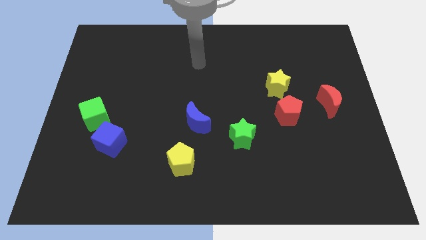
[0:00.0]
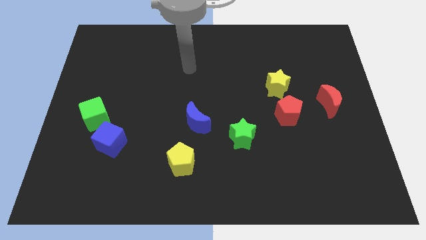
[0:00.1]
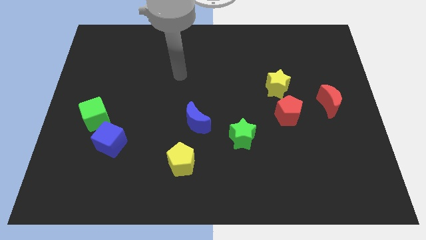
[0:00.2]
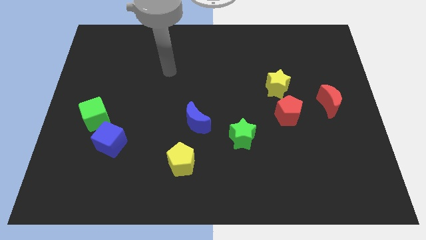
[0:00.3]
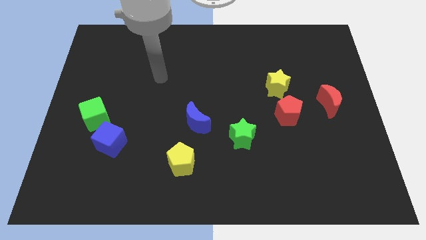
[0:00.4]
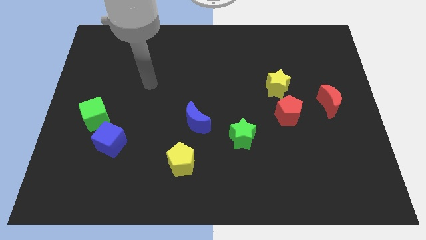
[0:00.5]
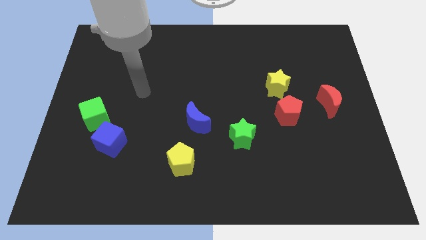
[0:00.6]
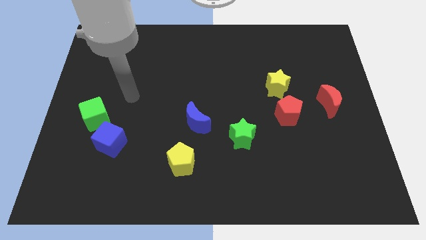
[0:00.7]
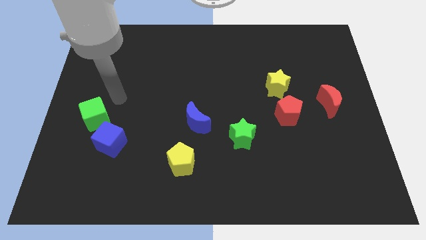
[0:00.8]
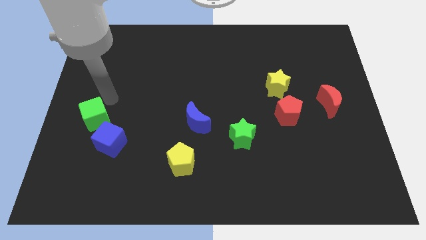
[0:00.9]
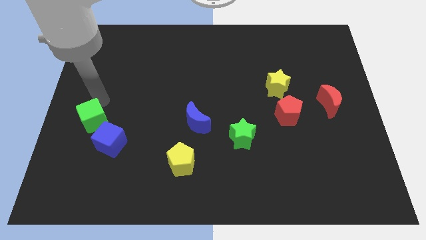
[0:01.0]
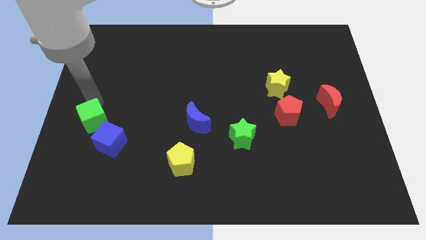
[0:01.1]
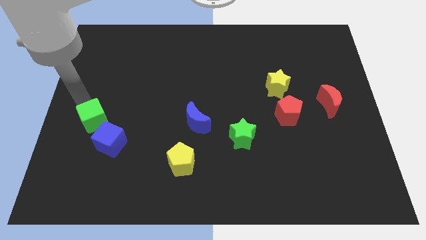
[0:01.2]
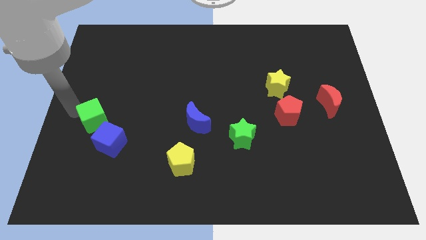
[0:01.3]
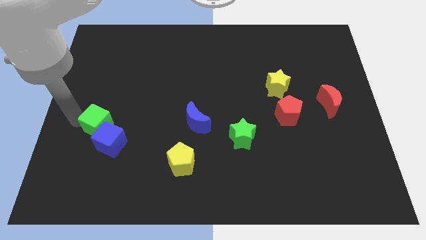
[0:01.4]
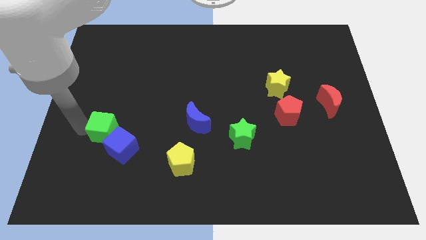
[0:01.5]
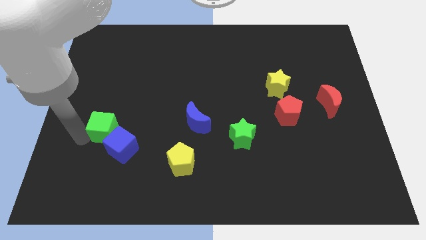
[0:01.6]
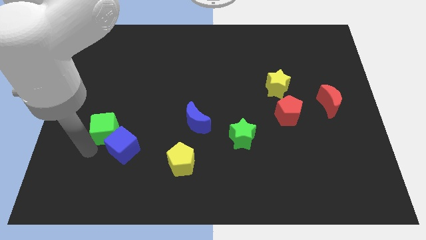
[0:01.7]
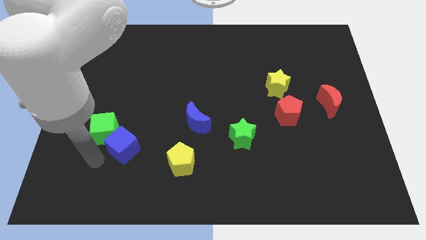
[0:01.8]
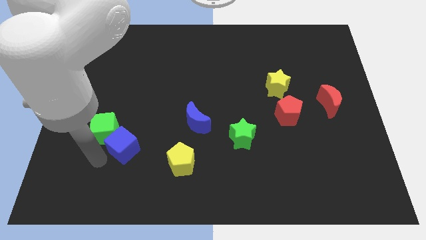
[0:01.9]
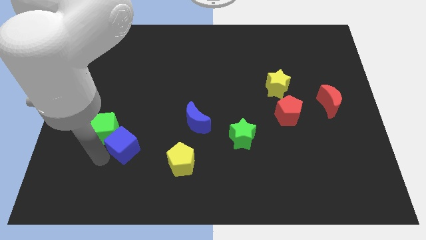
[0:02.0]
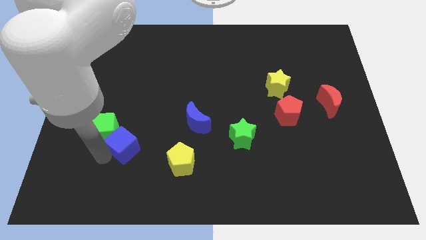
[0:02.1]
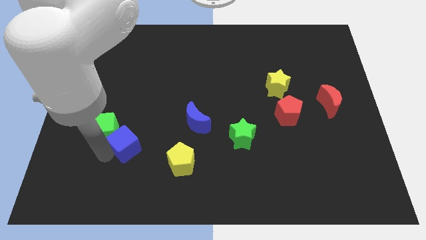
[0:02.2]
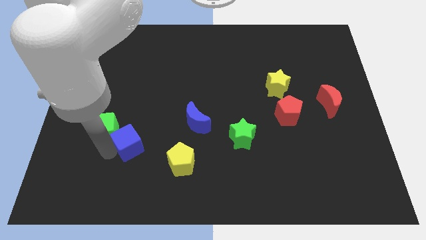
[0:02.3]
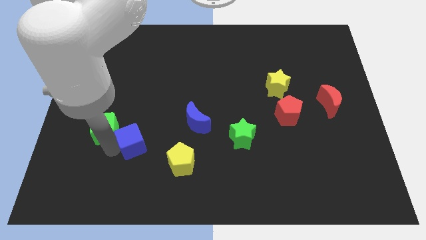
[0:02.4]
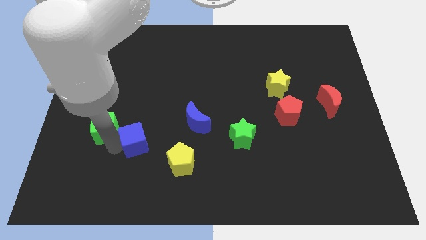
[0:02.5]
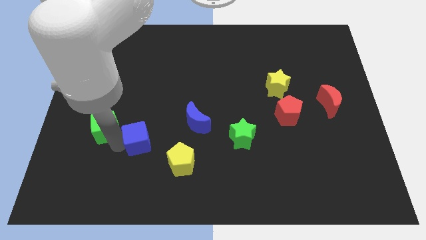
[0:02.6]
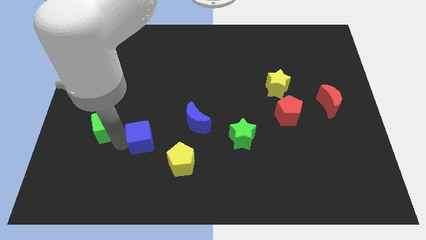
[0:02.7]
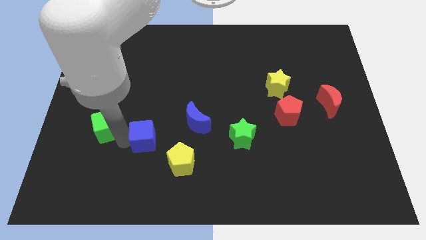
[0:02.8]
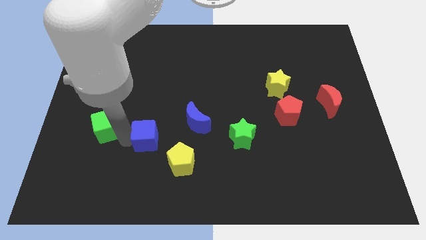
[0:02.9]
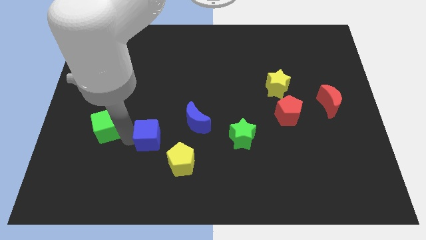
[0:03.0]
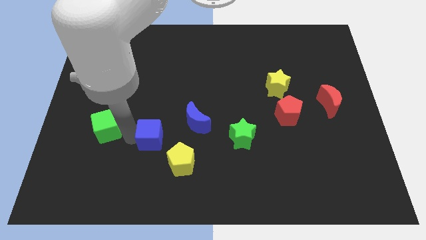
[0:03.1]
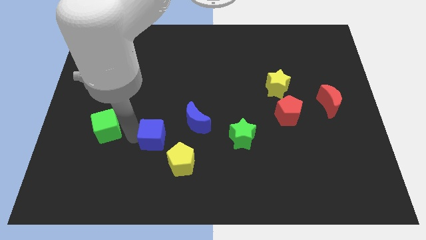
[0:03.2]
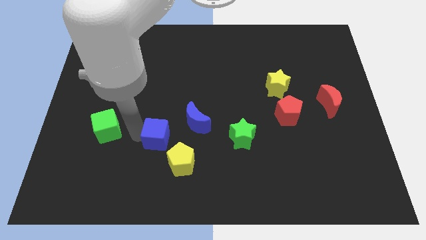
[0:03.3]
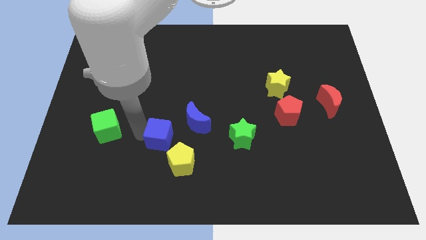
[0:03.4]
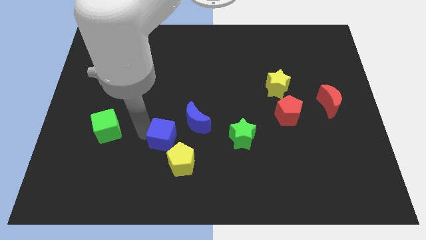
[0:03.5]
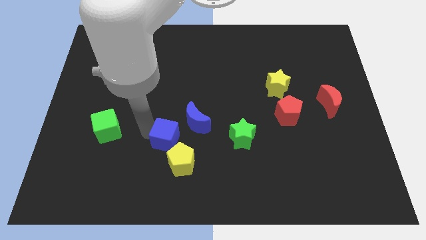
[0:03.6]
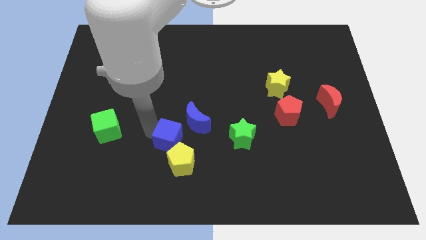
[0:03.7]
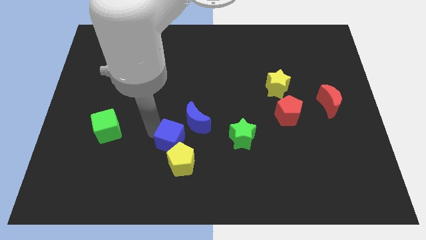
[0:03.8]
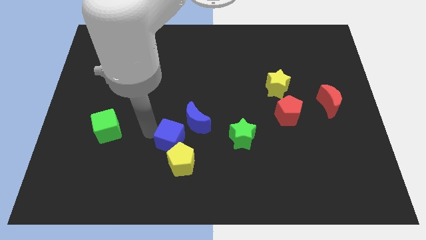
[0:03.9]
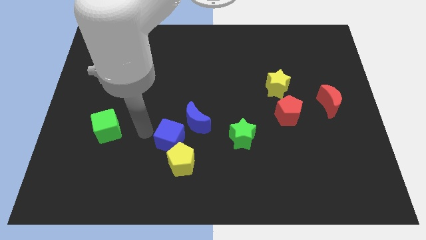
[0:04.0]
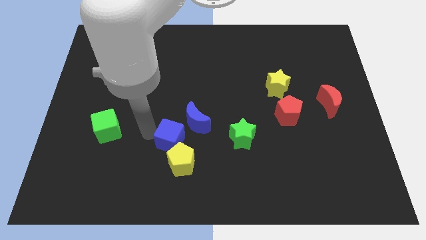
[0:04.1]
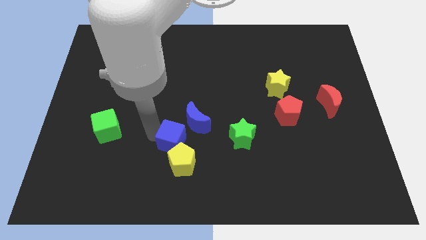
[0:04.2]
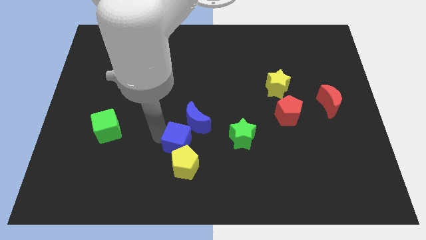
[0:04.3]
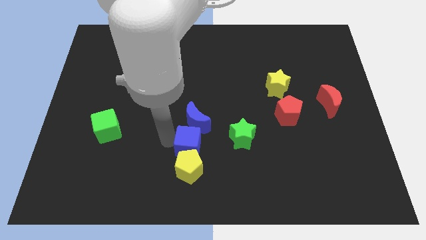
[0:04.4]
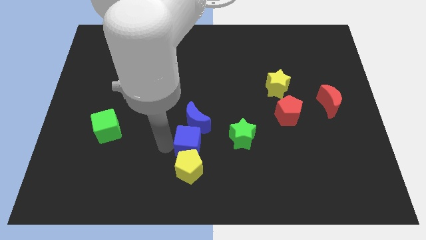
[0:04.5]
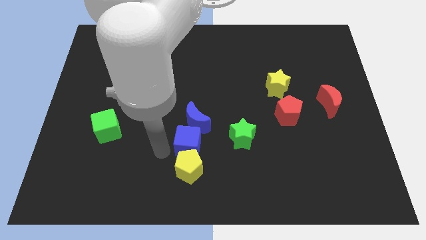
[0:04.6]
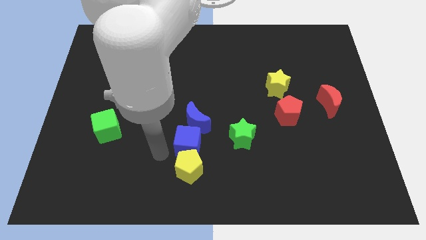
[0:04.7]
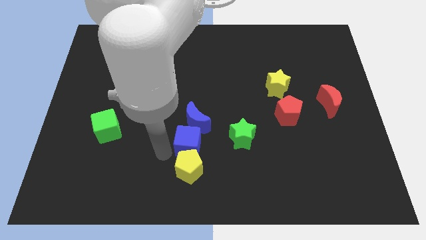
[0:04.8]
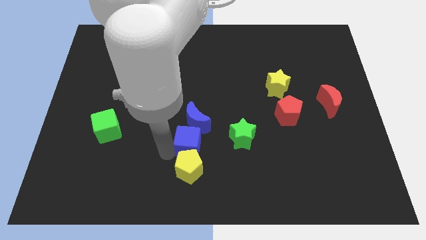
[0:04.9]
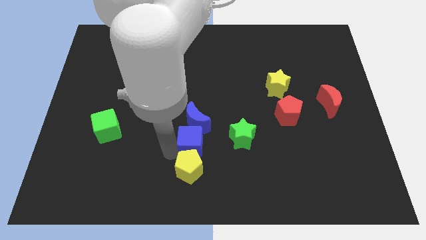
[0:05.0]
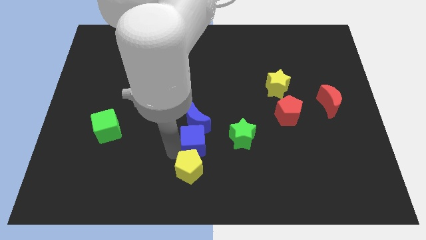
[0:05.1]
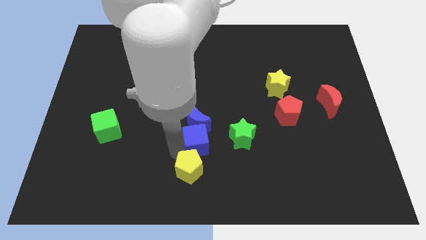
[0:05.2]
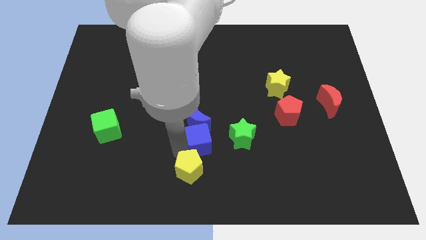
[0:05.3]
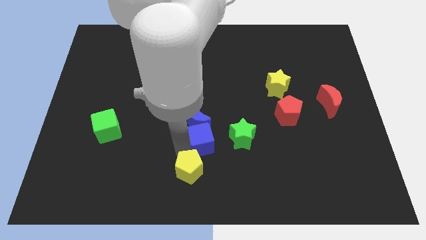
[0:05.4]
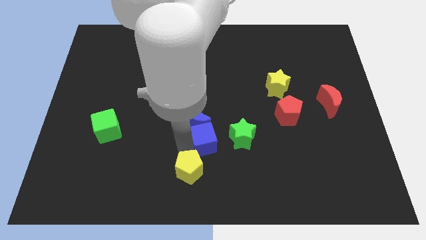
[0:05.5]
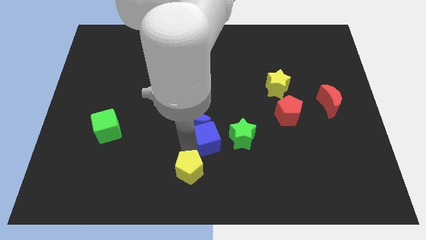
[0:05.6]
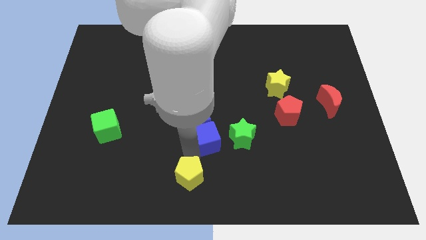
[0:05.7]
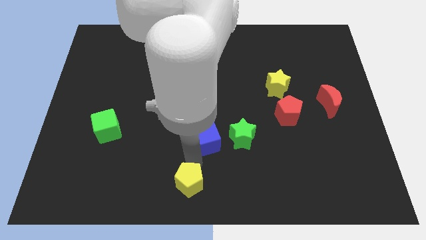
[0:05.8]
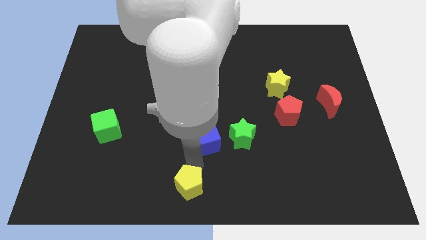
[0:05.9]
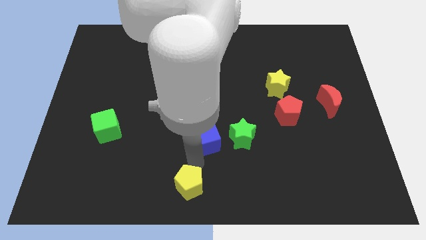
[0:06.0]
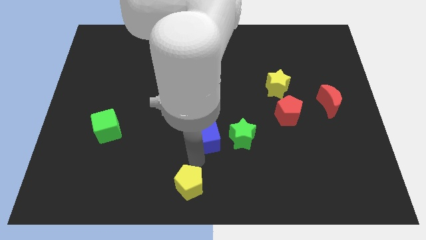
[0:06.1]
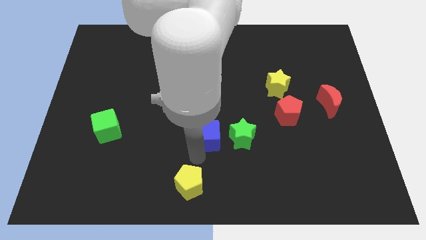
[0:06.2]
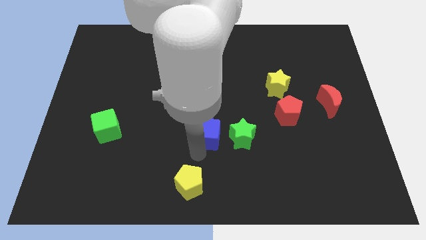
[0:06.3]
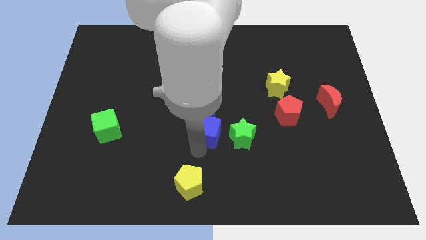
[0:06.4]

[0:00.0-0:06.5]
push the blue cube to the top left of the green star
